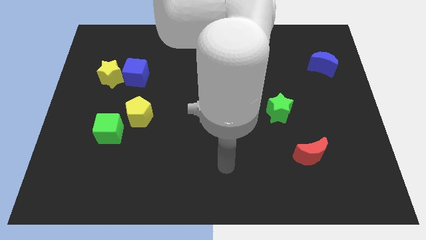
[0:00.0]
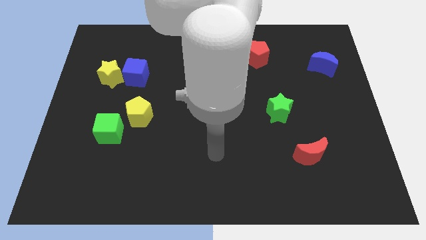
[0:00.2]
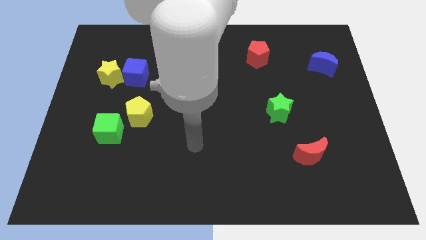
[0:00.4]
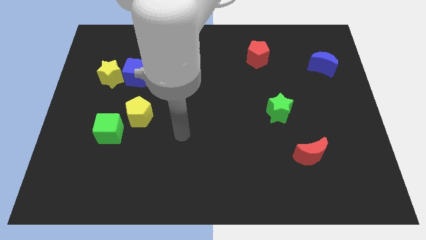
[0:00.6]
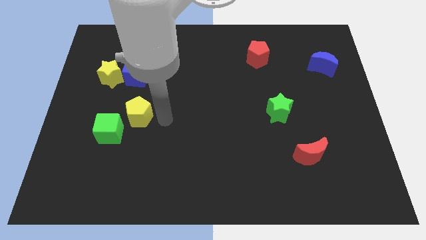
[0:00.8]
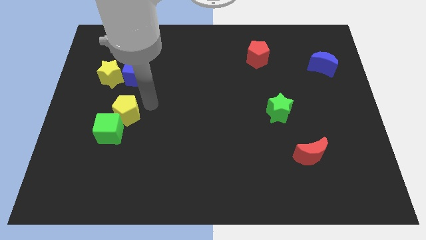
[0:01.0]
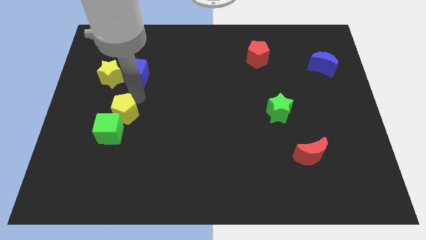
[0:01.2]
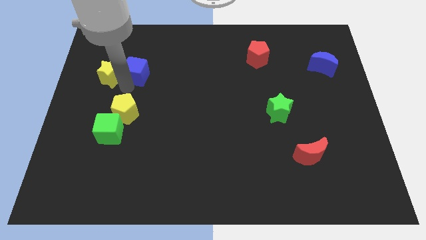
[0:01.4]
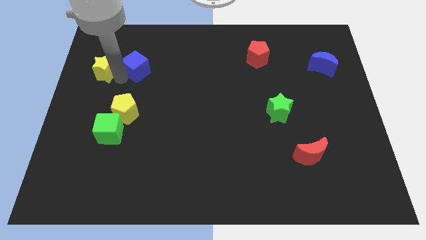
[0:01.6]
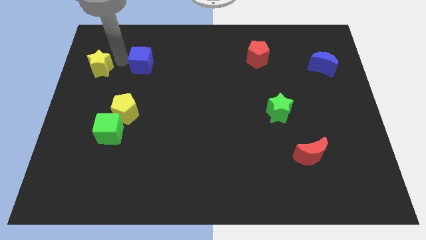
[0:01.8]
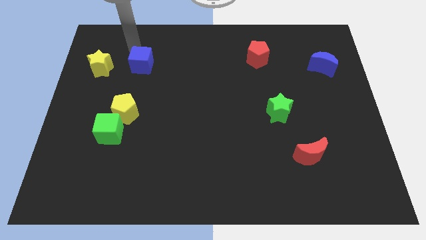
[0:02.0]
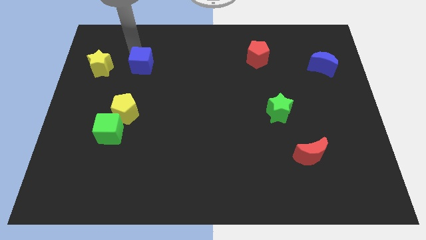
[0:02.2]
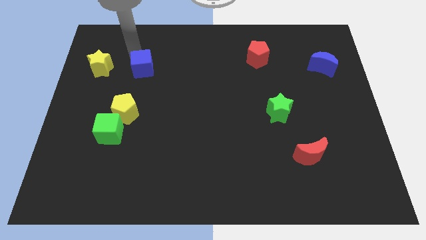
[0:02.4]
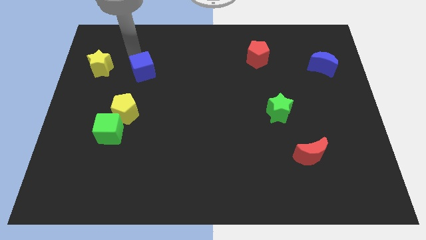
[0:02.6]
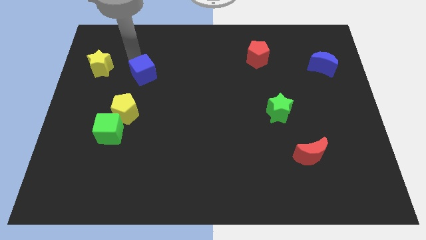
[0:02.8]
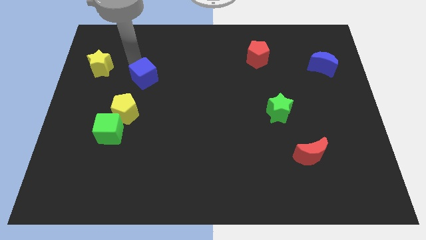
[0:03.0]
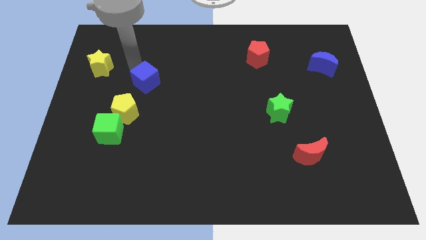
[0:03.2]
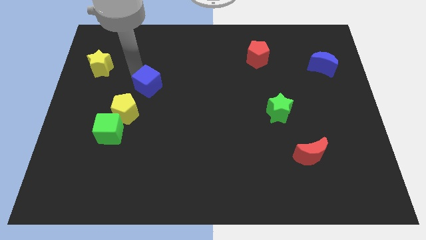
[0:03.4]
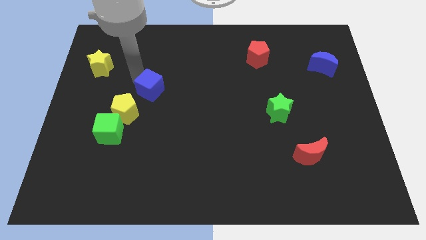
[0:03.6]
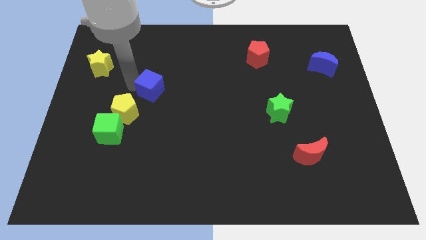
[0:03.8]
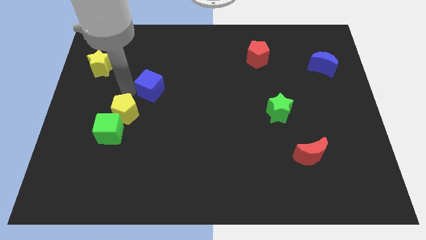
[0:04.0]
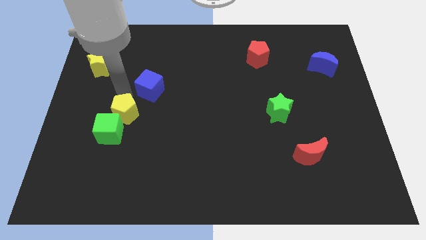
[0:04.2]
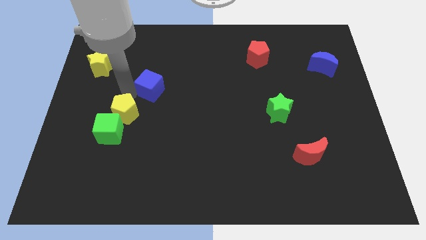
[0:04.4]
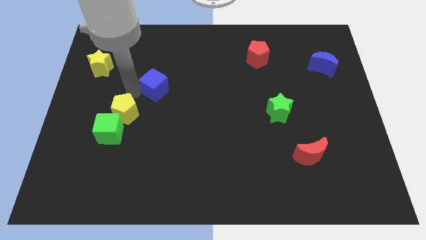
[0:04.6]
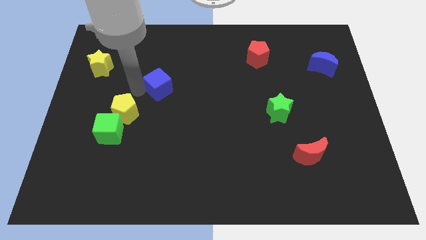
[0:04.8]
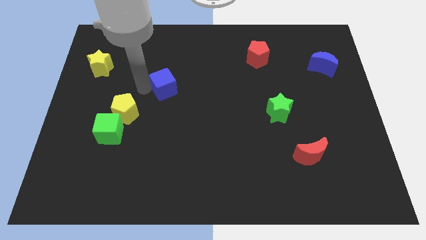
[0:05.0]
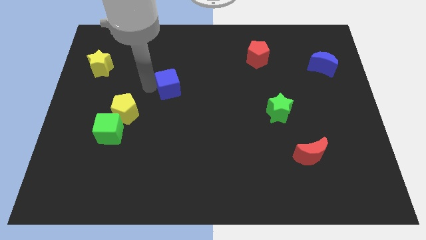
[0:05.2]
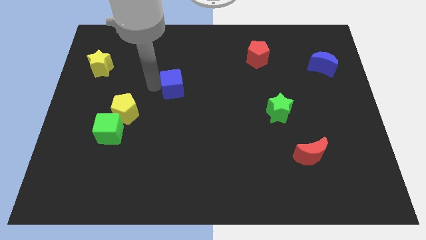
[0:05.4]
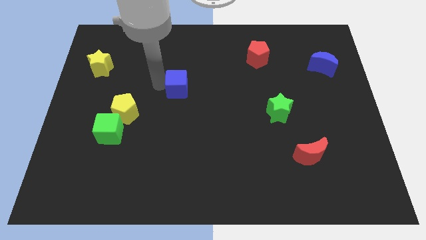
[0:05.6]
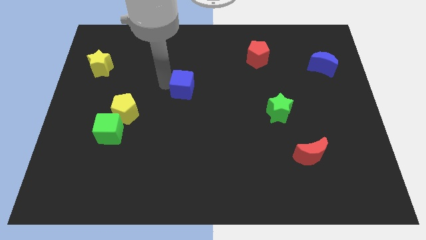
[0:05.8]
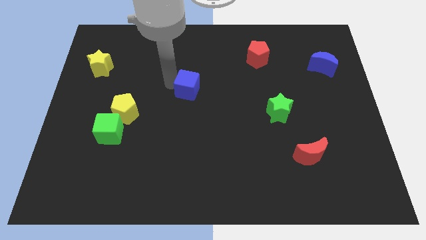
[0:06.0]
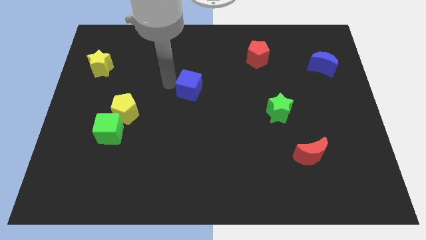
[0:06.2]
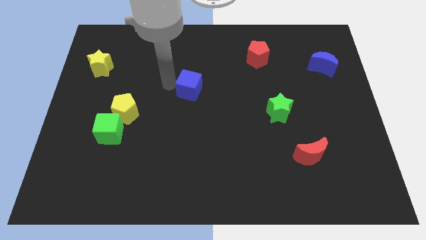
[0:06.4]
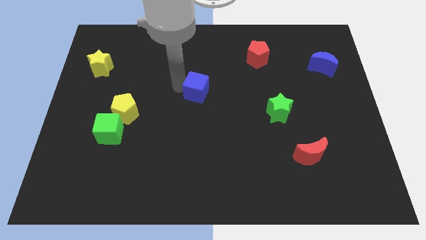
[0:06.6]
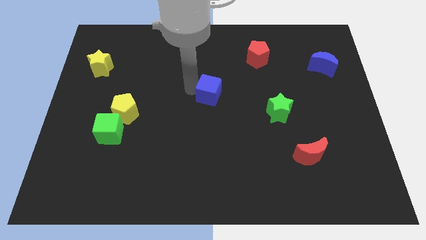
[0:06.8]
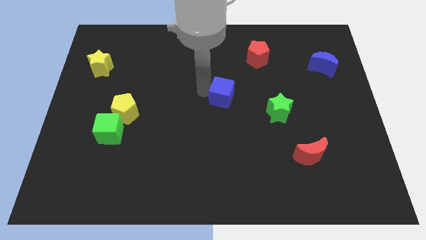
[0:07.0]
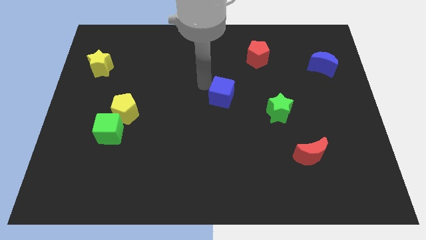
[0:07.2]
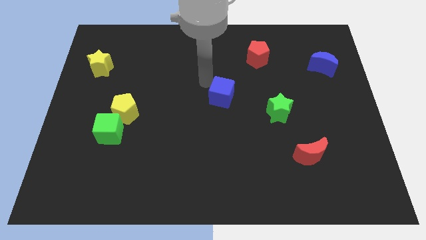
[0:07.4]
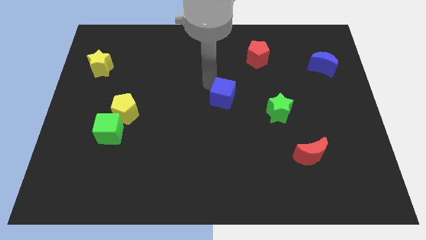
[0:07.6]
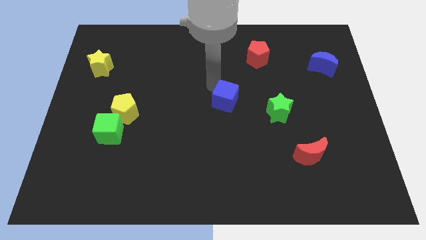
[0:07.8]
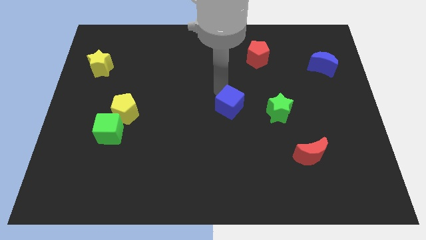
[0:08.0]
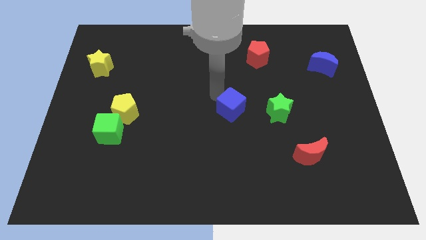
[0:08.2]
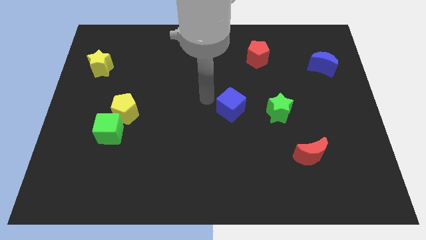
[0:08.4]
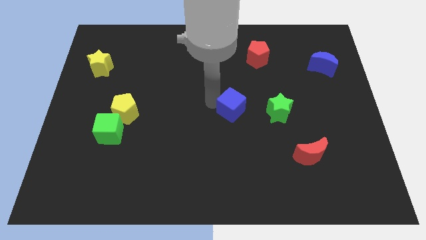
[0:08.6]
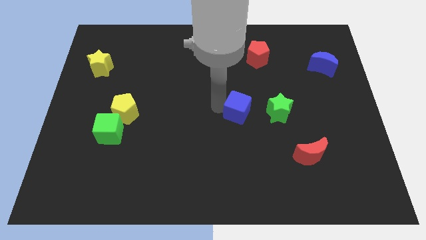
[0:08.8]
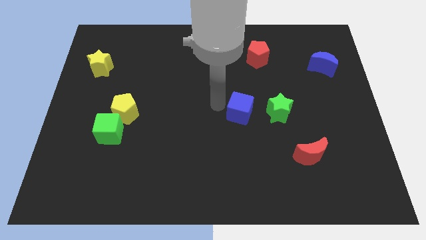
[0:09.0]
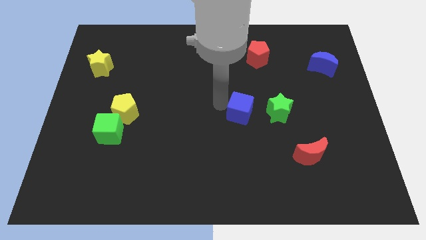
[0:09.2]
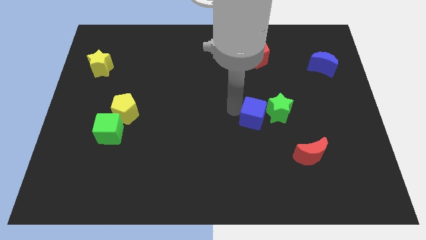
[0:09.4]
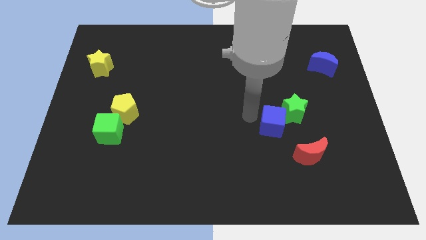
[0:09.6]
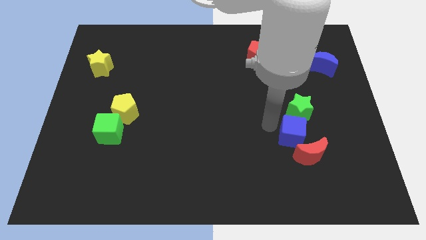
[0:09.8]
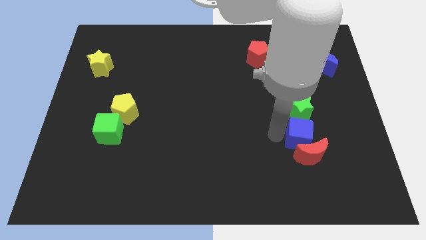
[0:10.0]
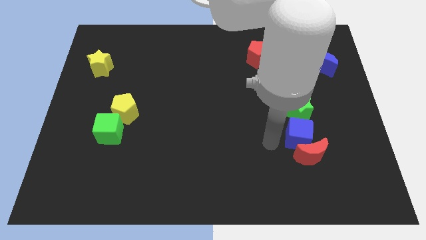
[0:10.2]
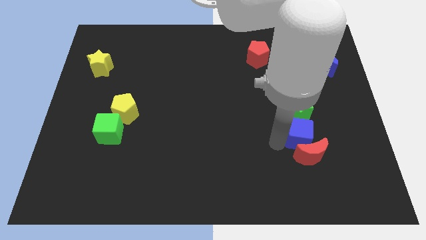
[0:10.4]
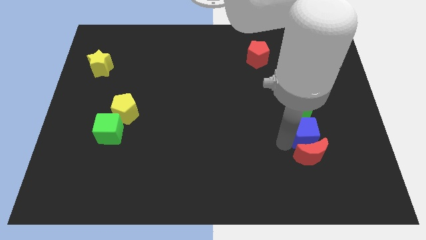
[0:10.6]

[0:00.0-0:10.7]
slide the blue cube diagonally down and to the right of the green star

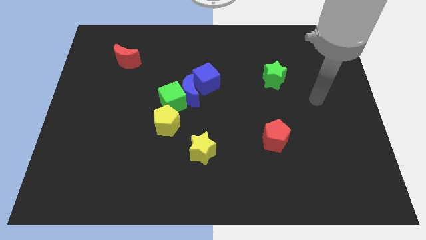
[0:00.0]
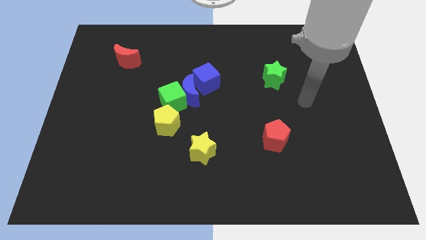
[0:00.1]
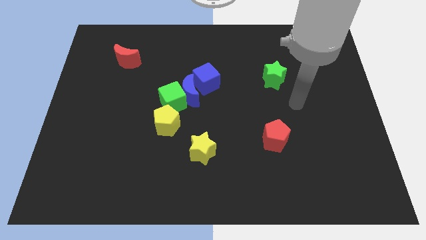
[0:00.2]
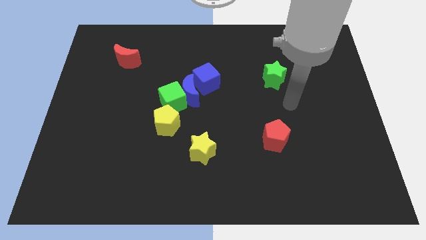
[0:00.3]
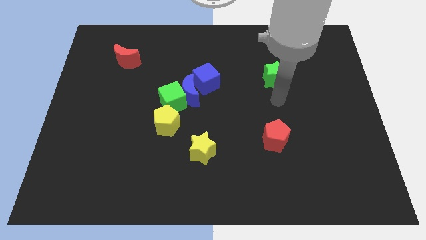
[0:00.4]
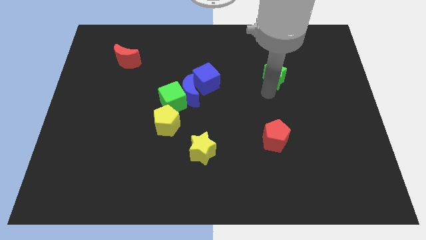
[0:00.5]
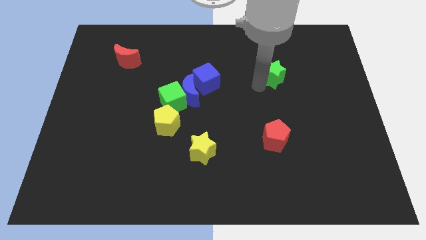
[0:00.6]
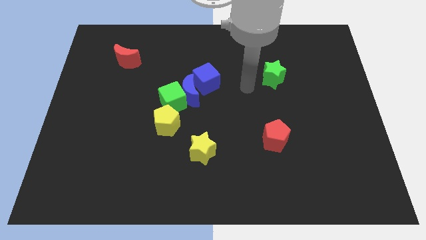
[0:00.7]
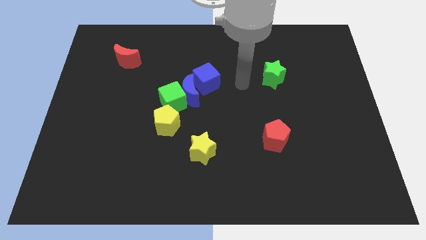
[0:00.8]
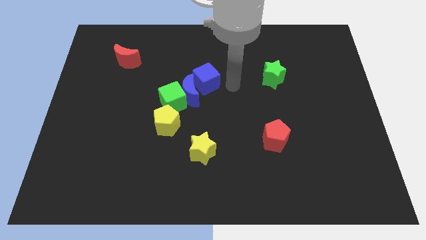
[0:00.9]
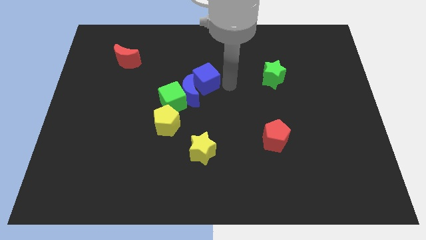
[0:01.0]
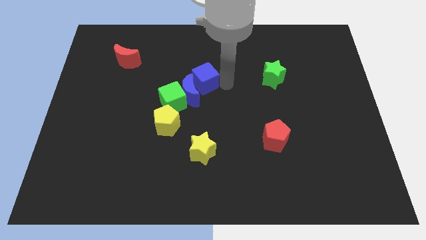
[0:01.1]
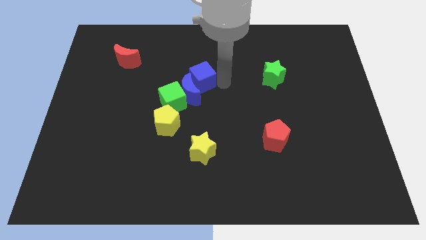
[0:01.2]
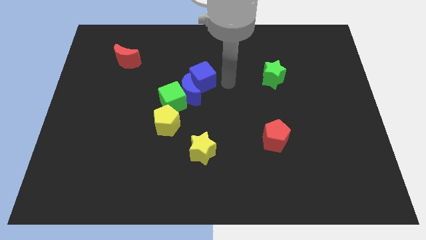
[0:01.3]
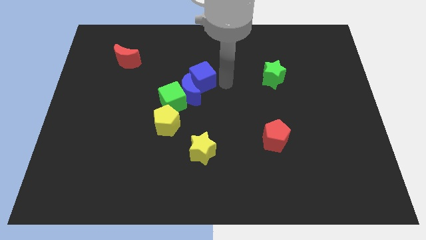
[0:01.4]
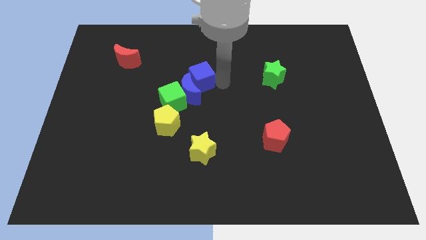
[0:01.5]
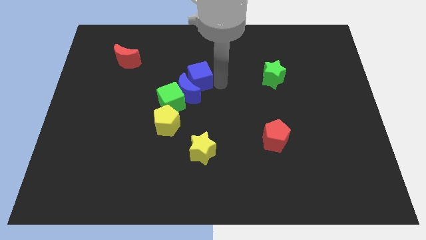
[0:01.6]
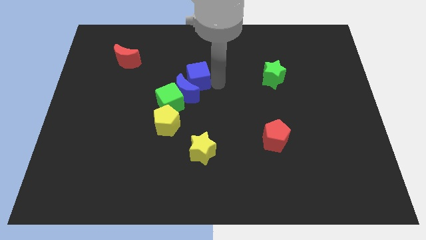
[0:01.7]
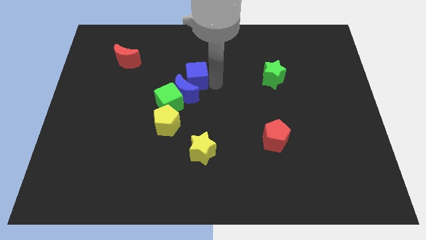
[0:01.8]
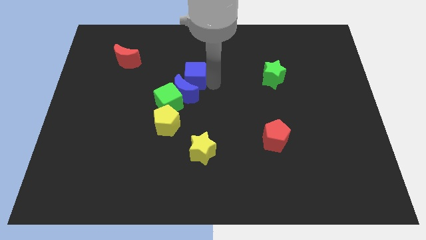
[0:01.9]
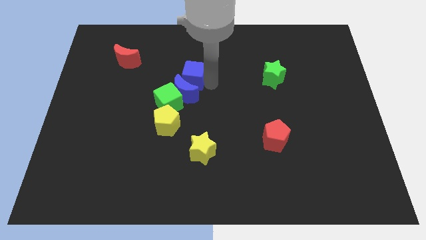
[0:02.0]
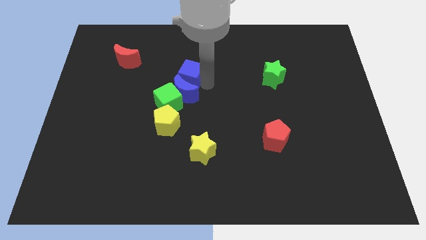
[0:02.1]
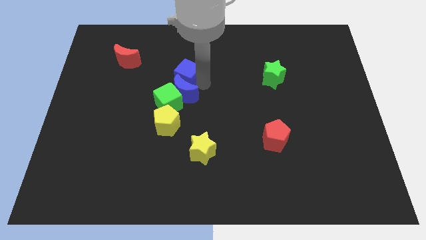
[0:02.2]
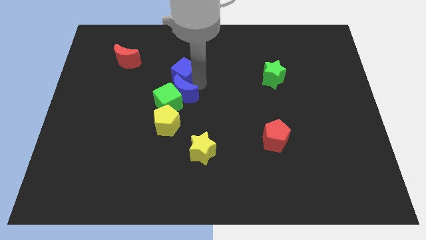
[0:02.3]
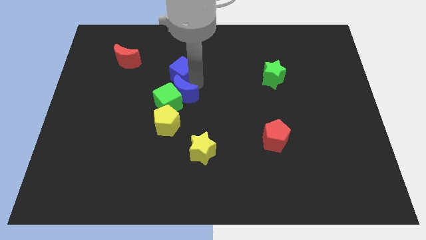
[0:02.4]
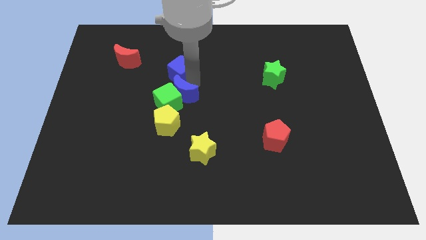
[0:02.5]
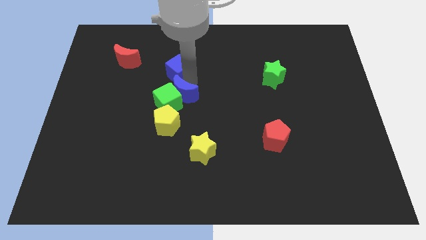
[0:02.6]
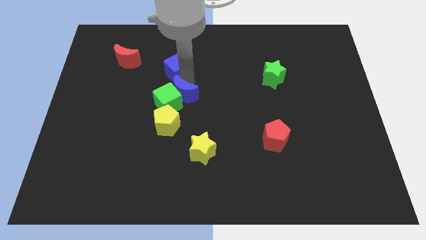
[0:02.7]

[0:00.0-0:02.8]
move the blue cube just right of the red moon

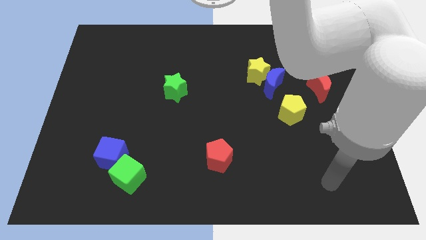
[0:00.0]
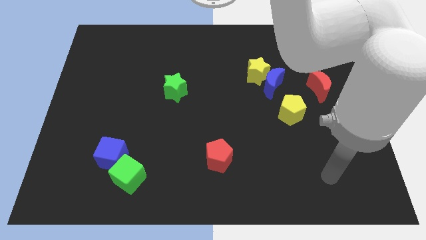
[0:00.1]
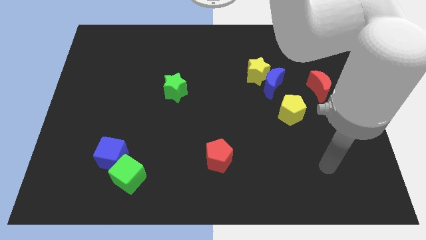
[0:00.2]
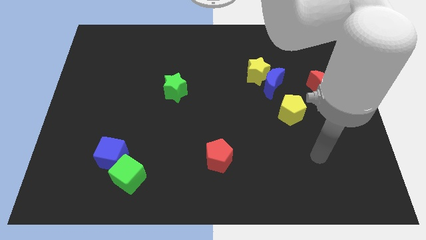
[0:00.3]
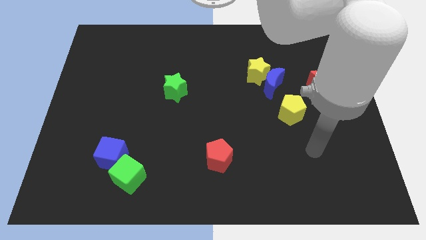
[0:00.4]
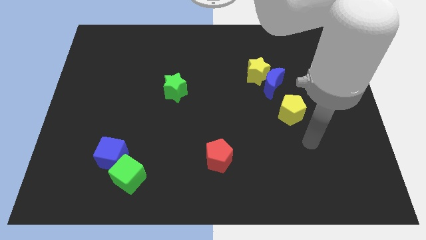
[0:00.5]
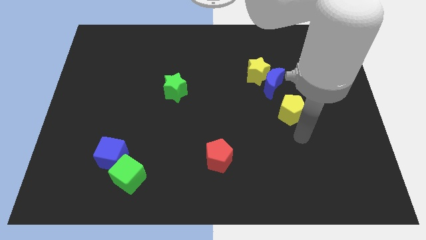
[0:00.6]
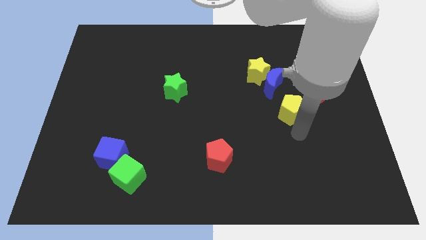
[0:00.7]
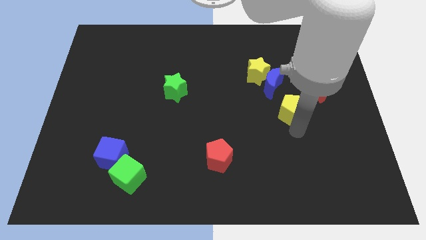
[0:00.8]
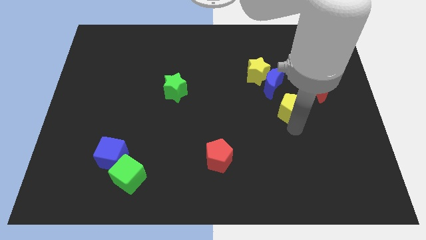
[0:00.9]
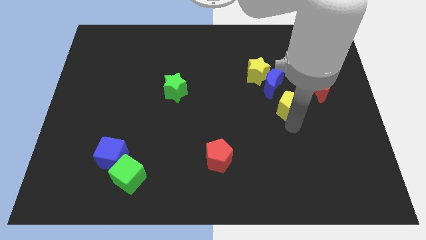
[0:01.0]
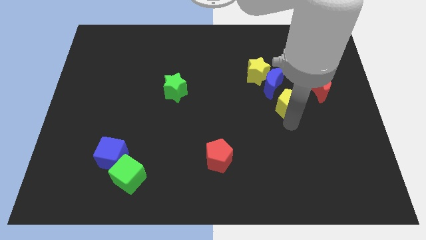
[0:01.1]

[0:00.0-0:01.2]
slide the yellow pentagon diagonally down and to the right of the yellow star
